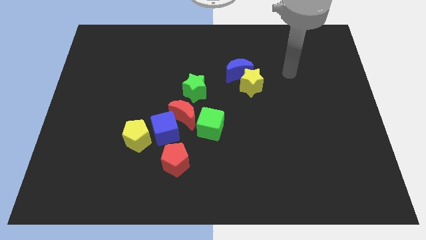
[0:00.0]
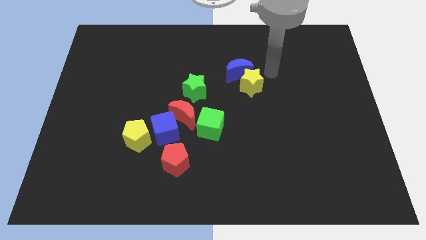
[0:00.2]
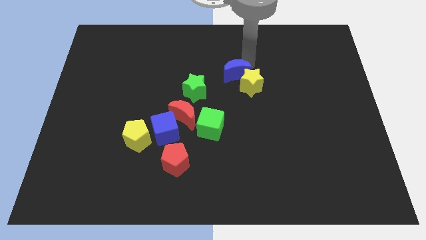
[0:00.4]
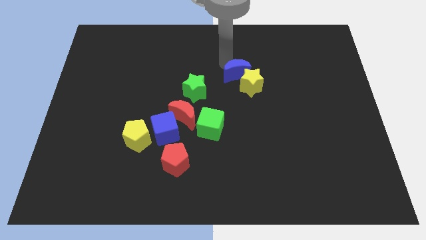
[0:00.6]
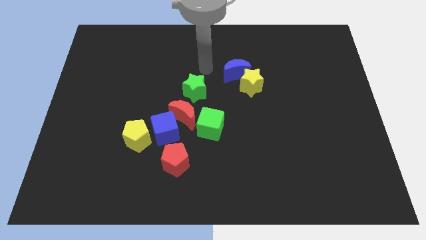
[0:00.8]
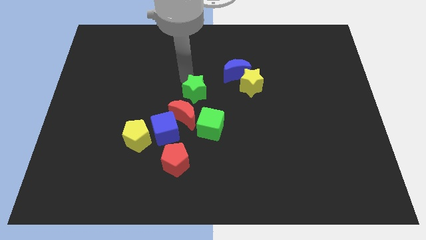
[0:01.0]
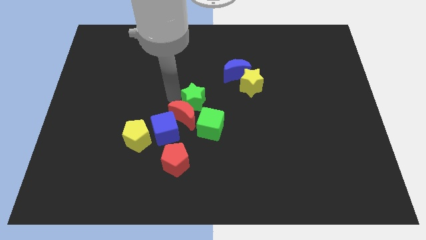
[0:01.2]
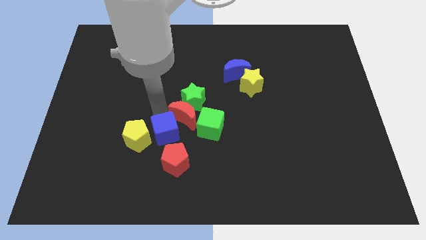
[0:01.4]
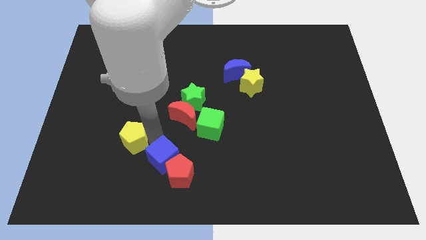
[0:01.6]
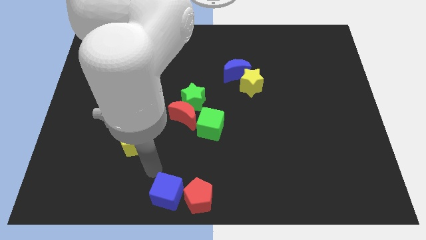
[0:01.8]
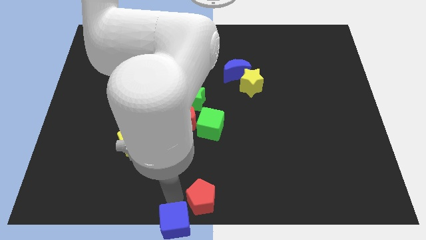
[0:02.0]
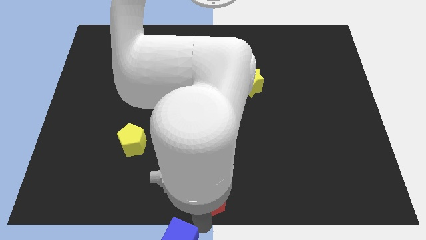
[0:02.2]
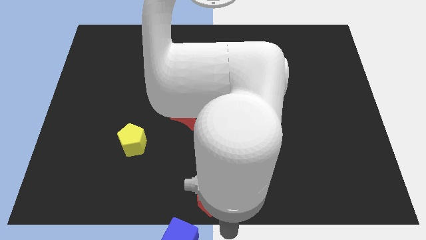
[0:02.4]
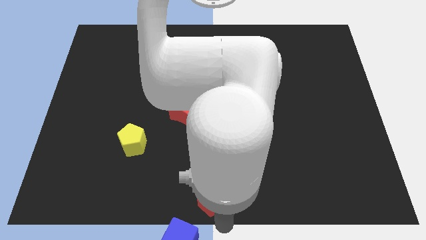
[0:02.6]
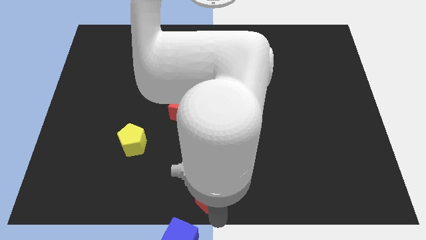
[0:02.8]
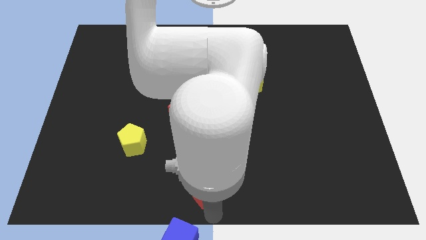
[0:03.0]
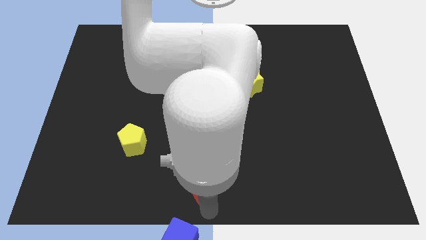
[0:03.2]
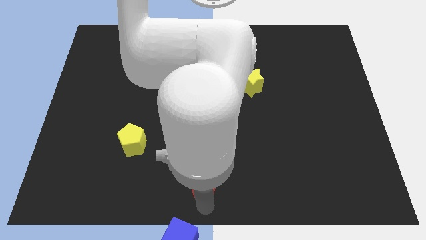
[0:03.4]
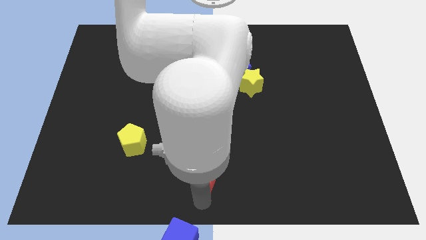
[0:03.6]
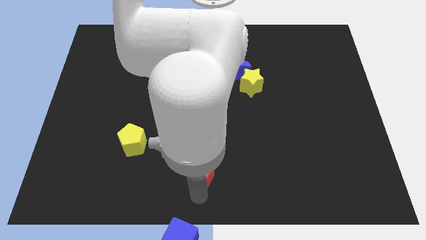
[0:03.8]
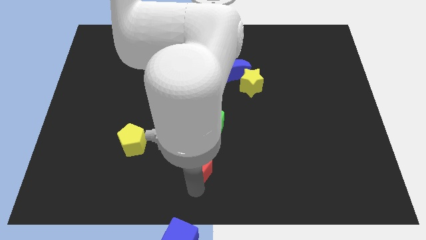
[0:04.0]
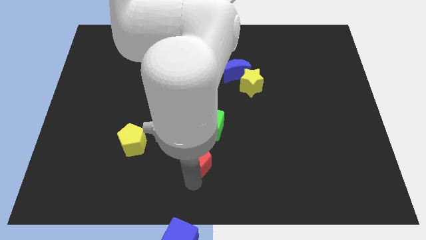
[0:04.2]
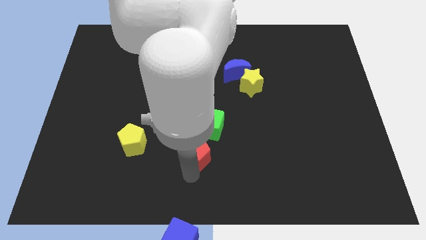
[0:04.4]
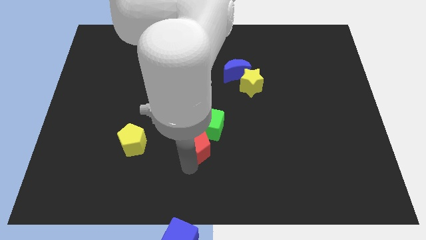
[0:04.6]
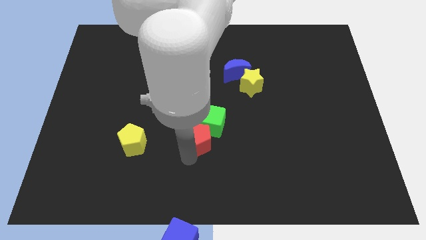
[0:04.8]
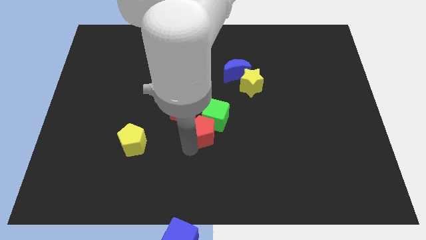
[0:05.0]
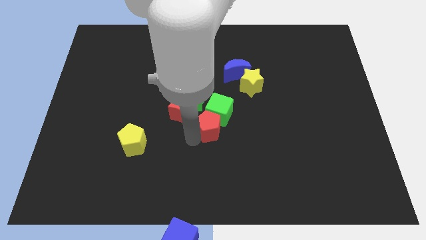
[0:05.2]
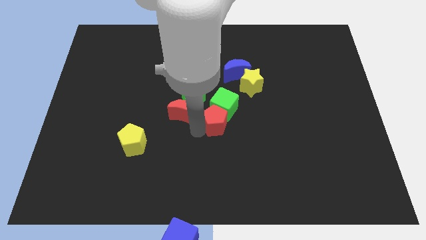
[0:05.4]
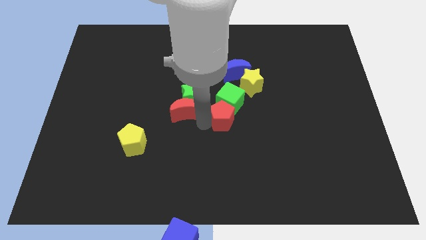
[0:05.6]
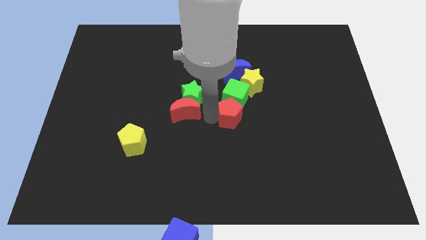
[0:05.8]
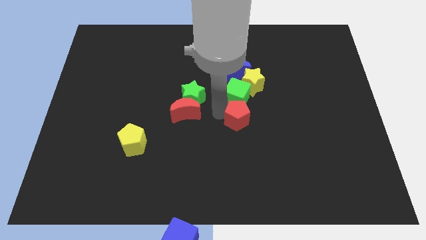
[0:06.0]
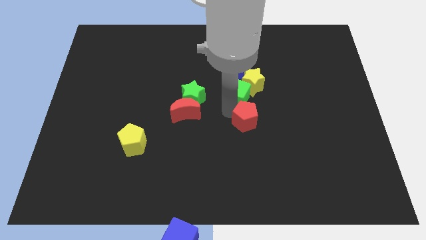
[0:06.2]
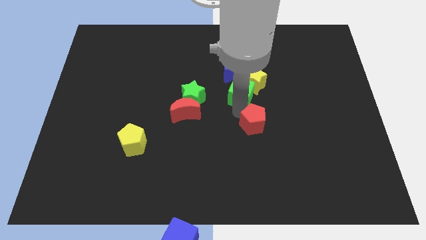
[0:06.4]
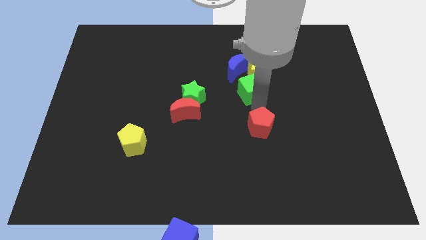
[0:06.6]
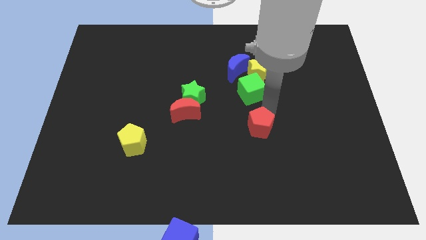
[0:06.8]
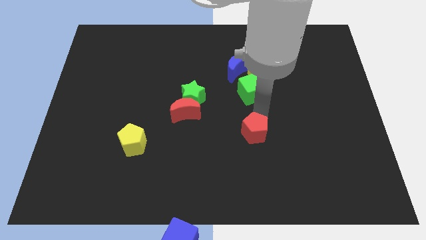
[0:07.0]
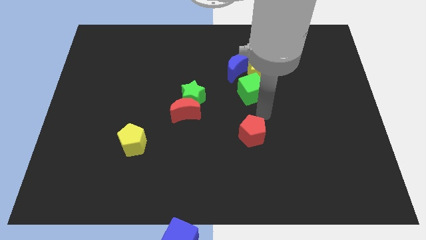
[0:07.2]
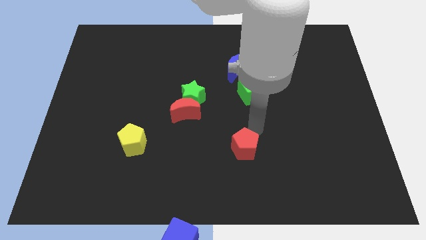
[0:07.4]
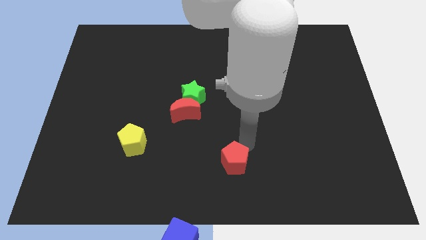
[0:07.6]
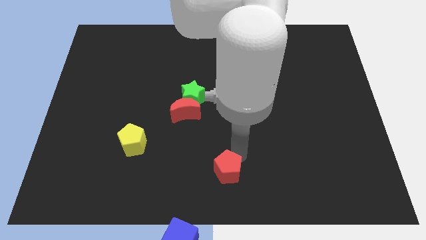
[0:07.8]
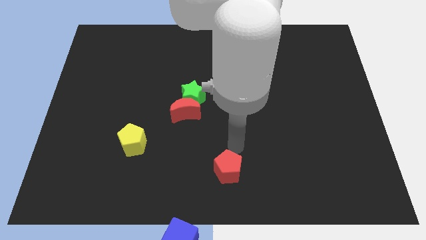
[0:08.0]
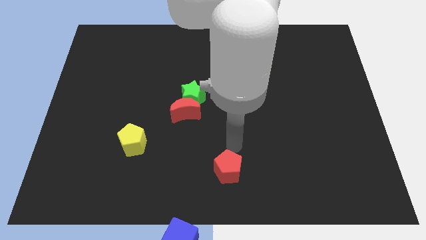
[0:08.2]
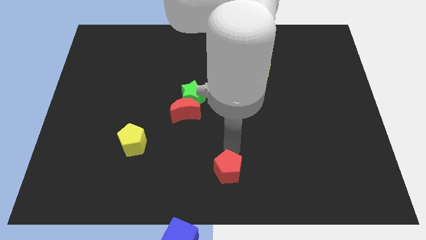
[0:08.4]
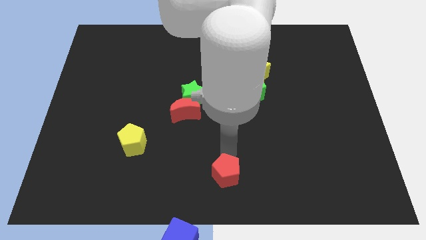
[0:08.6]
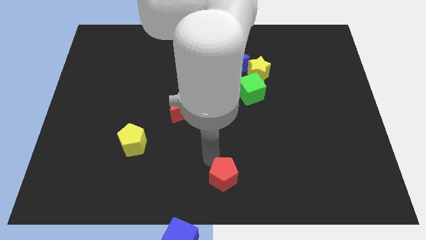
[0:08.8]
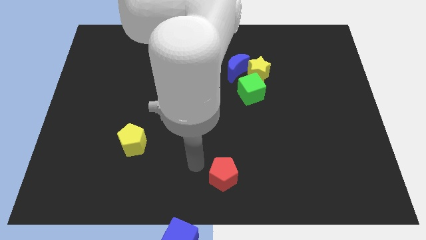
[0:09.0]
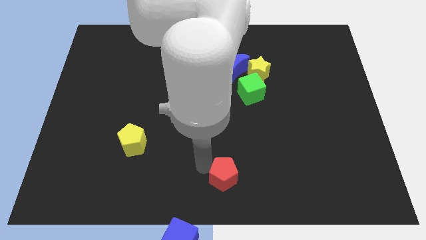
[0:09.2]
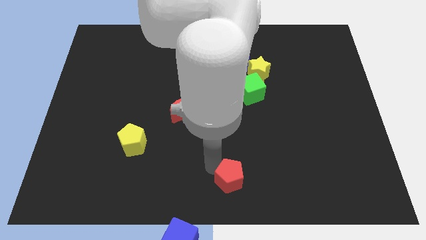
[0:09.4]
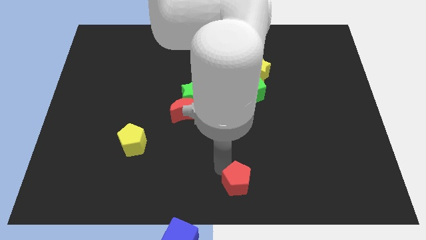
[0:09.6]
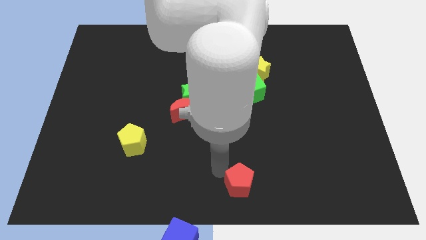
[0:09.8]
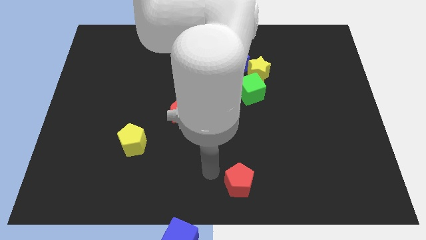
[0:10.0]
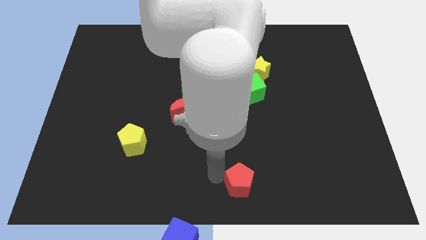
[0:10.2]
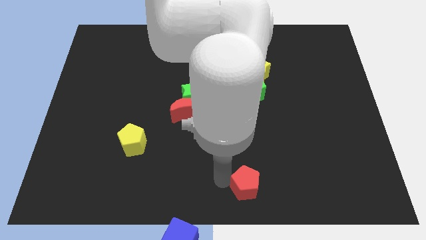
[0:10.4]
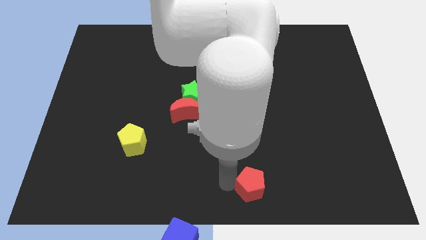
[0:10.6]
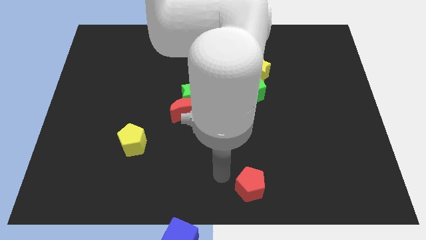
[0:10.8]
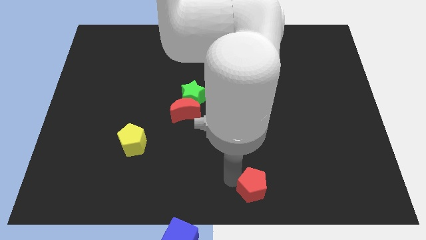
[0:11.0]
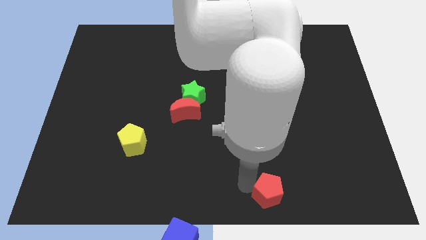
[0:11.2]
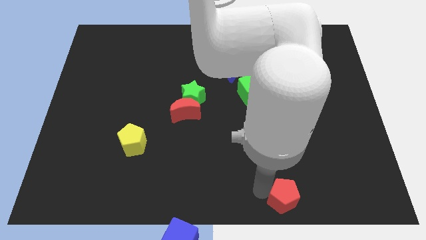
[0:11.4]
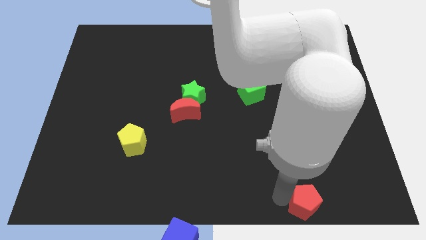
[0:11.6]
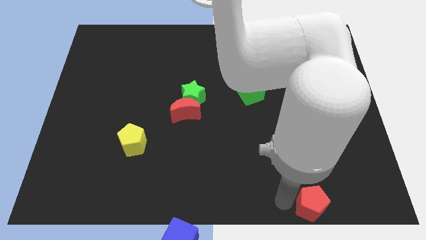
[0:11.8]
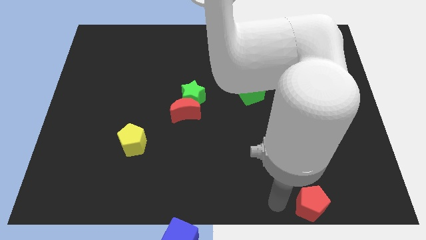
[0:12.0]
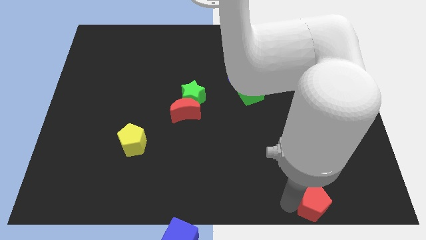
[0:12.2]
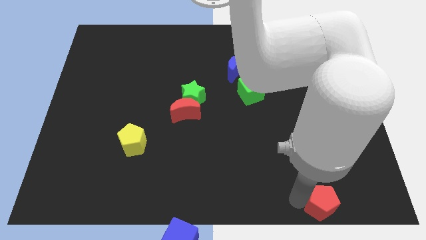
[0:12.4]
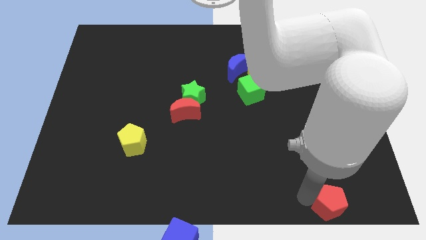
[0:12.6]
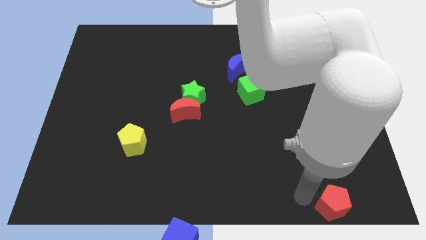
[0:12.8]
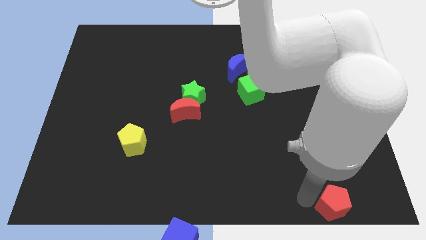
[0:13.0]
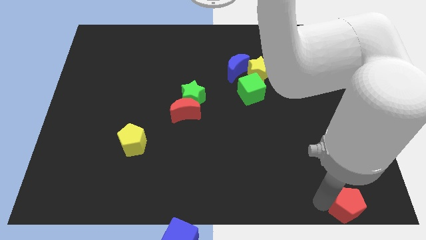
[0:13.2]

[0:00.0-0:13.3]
slide the red pentagon to the bottom right
